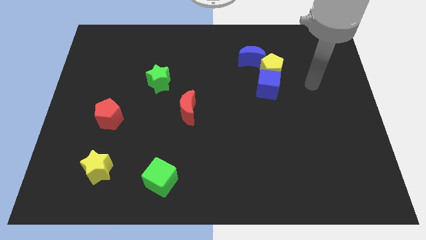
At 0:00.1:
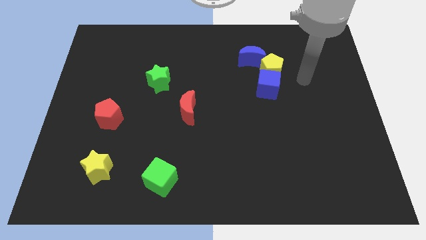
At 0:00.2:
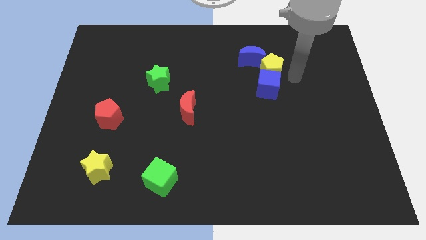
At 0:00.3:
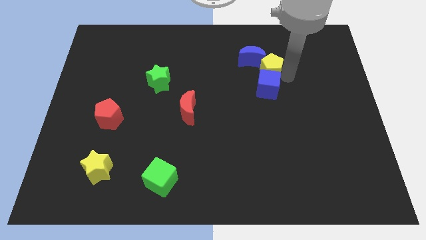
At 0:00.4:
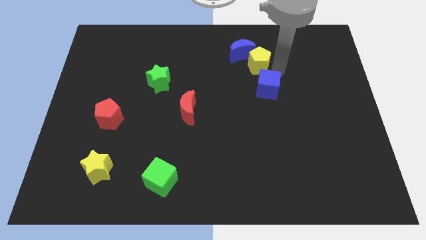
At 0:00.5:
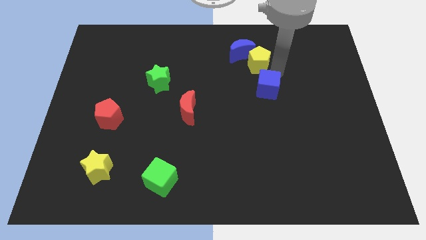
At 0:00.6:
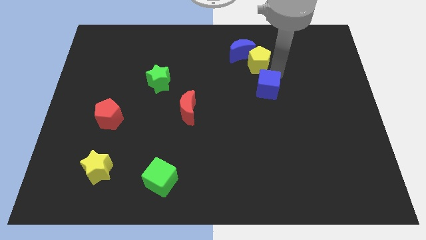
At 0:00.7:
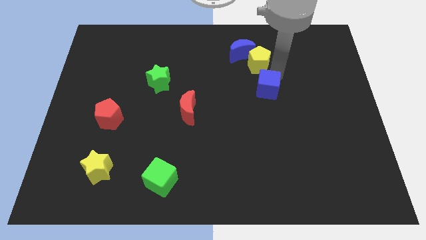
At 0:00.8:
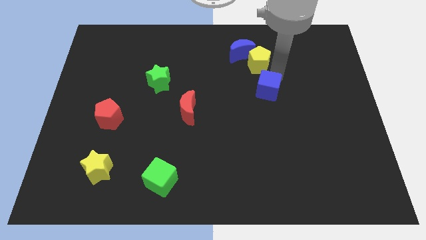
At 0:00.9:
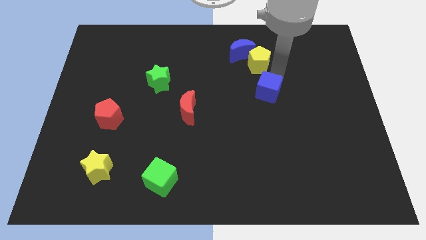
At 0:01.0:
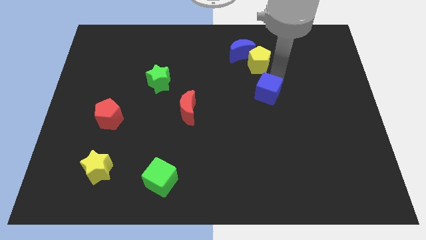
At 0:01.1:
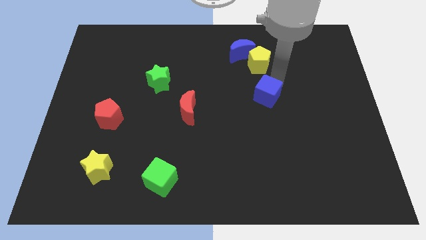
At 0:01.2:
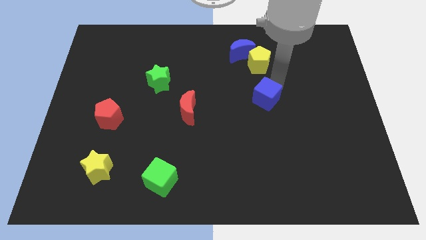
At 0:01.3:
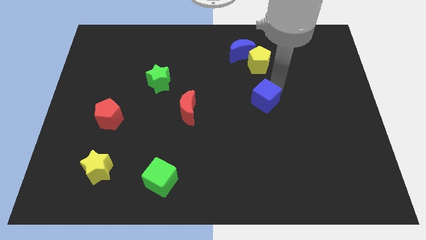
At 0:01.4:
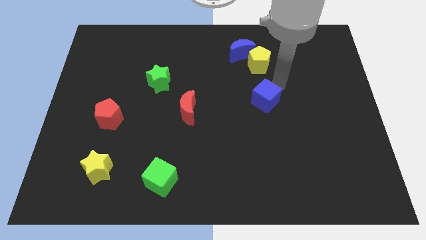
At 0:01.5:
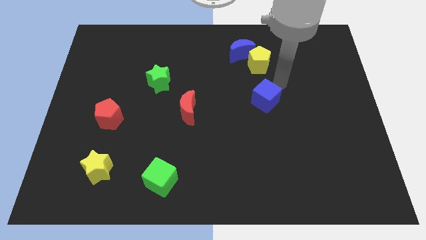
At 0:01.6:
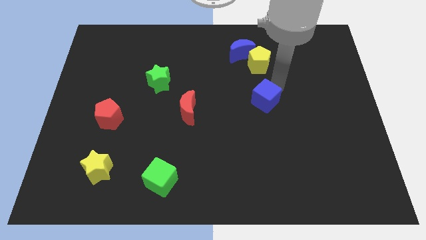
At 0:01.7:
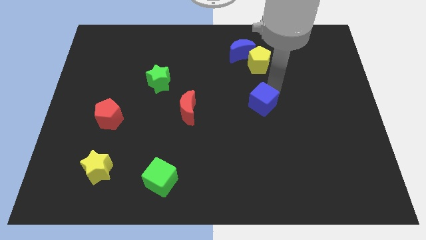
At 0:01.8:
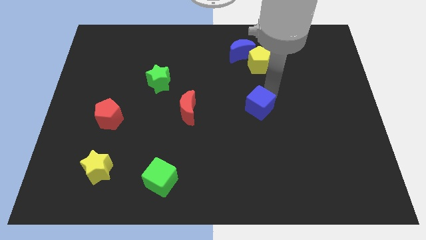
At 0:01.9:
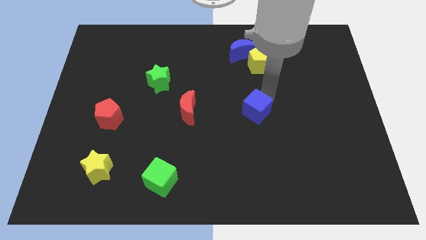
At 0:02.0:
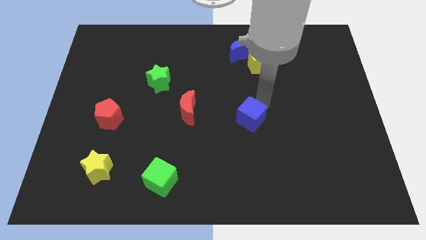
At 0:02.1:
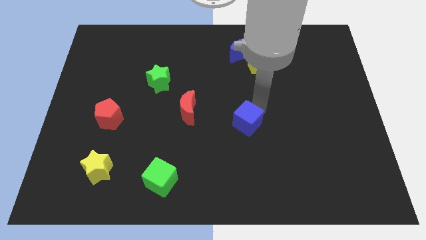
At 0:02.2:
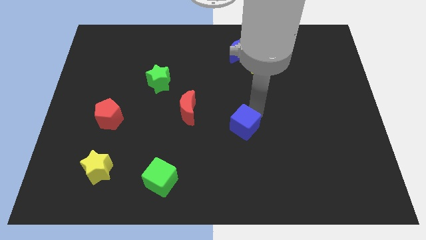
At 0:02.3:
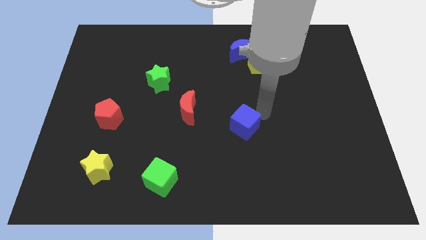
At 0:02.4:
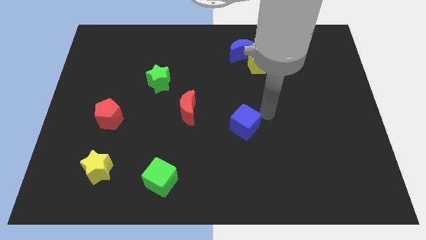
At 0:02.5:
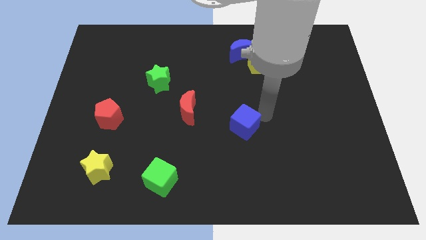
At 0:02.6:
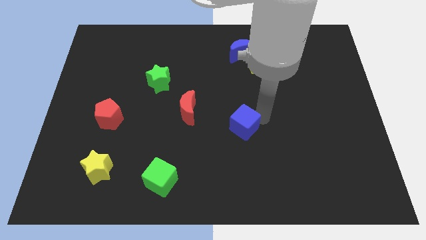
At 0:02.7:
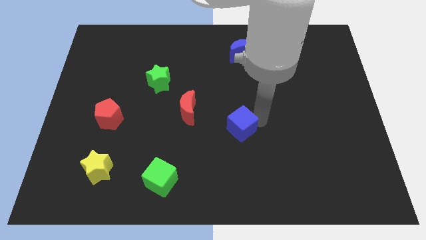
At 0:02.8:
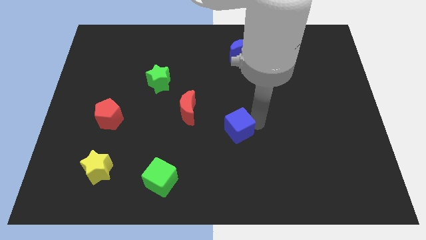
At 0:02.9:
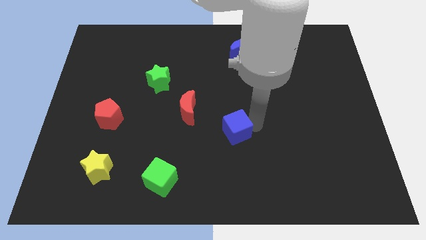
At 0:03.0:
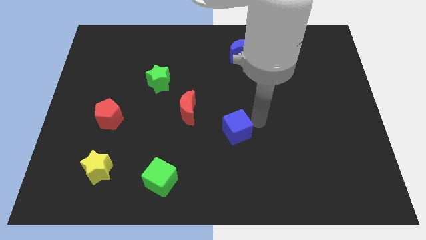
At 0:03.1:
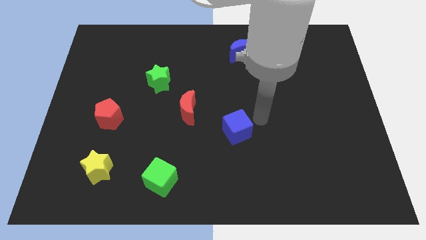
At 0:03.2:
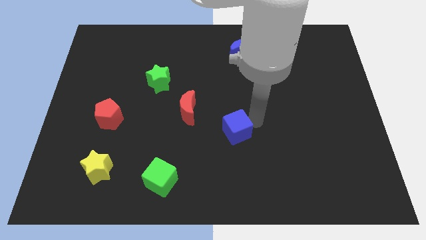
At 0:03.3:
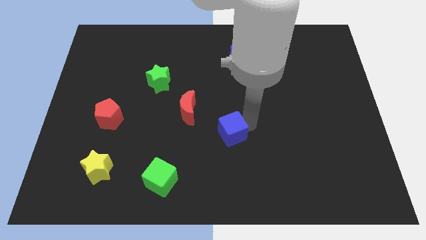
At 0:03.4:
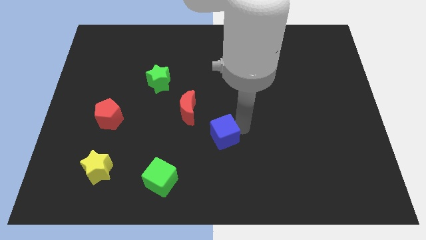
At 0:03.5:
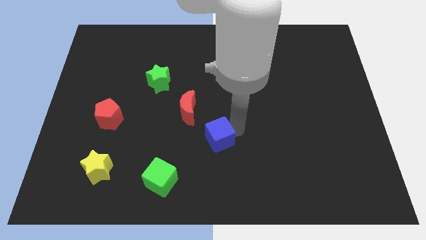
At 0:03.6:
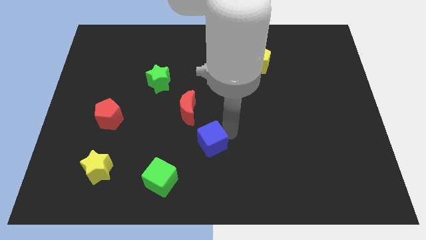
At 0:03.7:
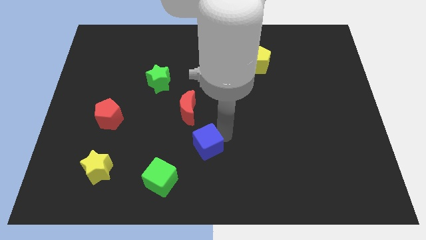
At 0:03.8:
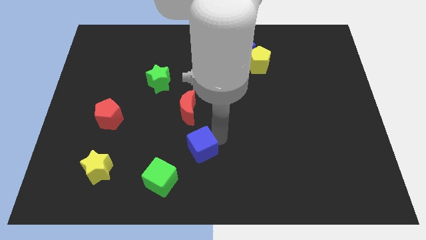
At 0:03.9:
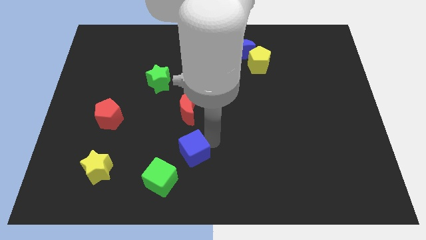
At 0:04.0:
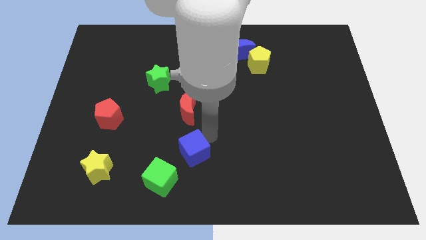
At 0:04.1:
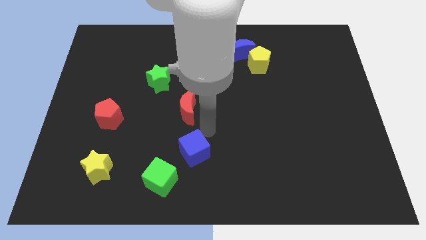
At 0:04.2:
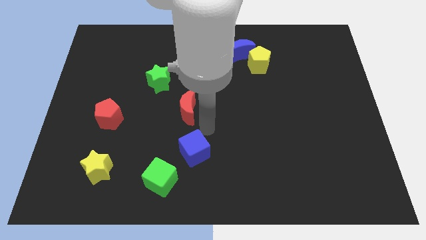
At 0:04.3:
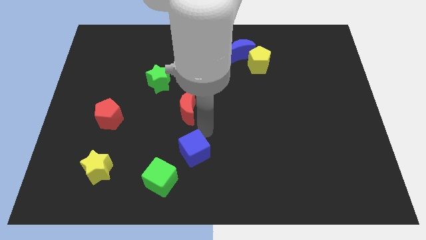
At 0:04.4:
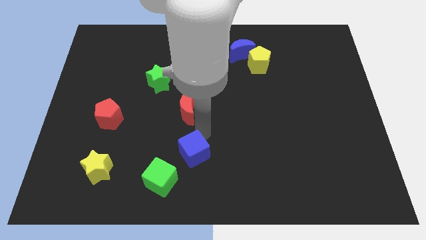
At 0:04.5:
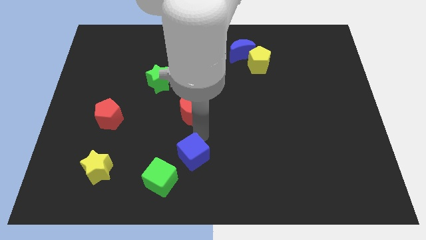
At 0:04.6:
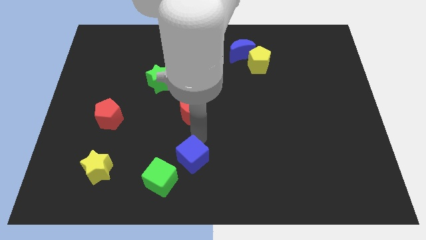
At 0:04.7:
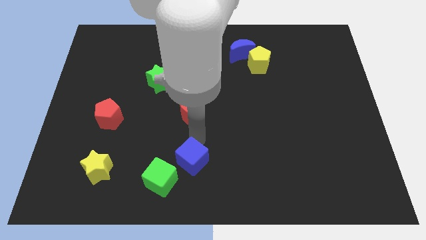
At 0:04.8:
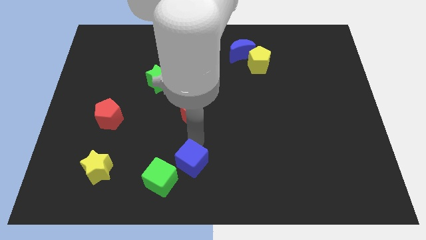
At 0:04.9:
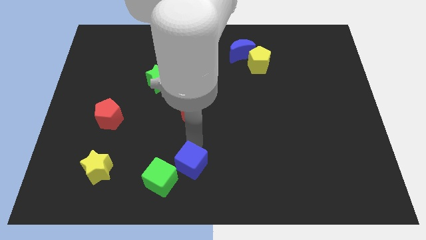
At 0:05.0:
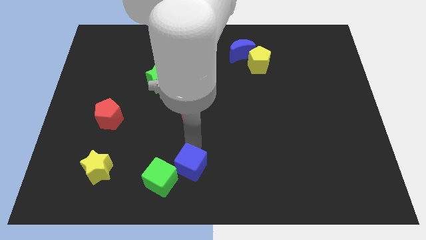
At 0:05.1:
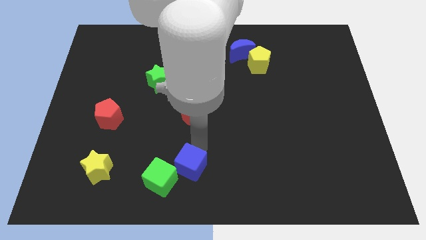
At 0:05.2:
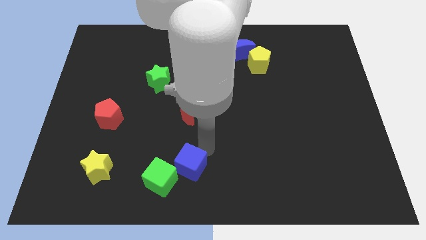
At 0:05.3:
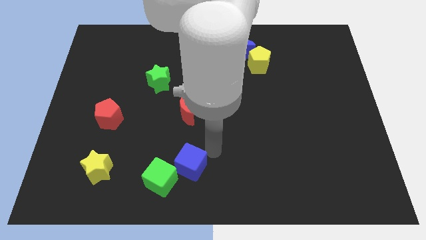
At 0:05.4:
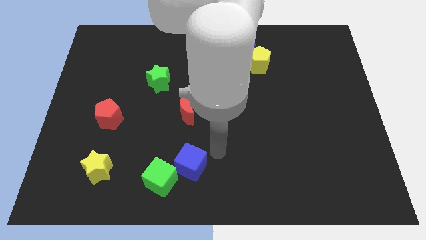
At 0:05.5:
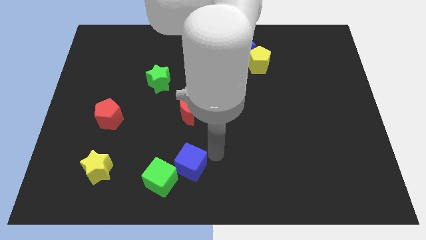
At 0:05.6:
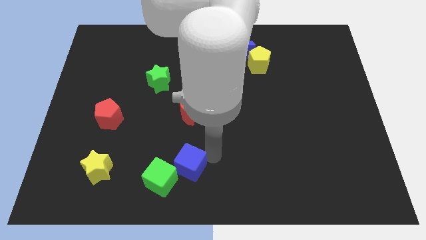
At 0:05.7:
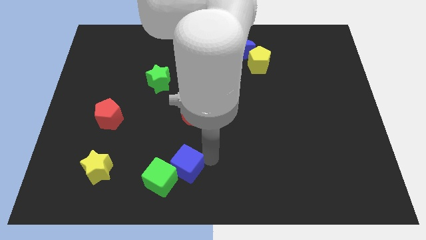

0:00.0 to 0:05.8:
put the blue cube close to the green cube

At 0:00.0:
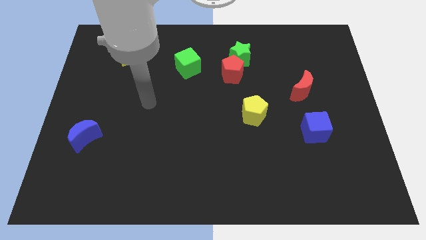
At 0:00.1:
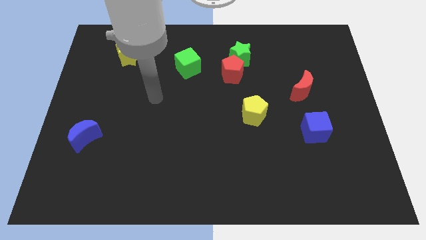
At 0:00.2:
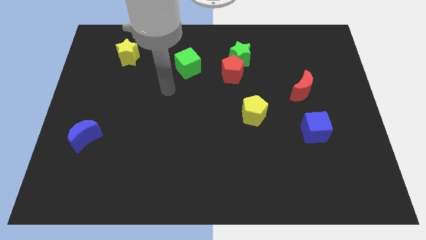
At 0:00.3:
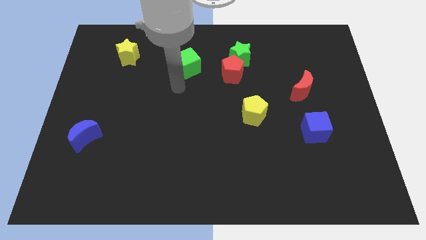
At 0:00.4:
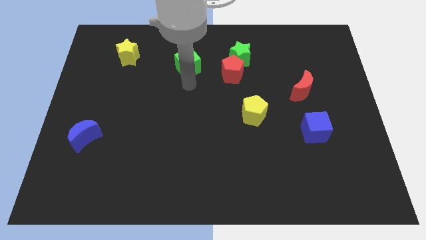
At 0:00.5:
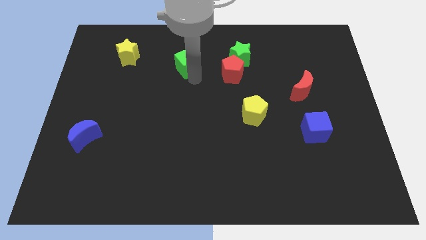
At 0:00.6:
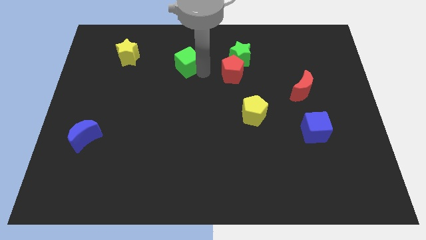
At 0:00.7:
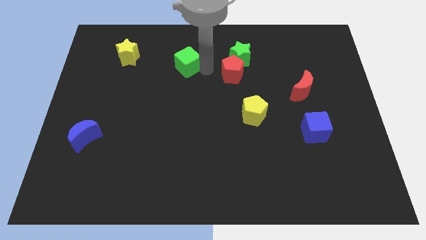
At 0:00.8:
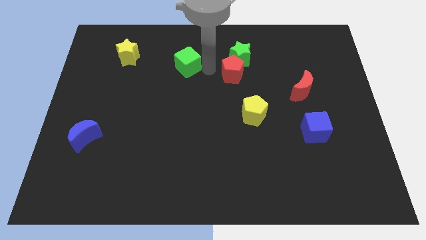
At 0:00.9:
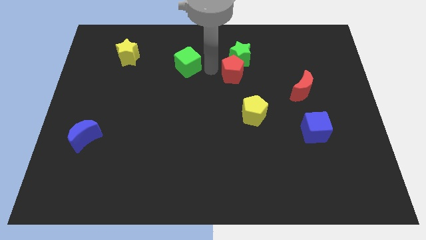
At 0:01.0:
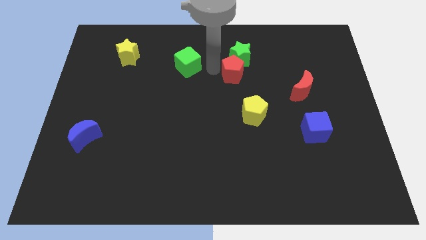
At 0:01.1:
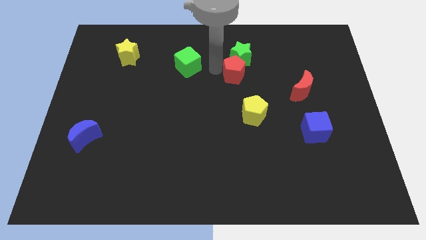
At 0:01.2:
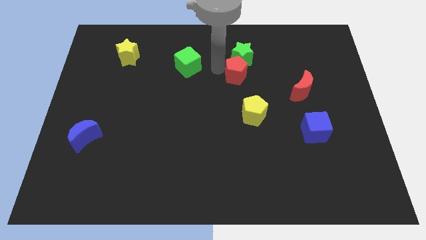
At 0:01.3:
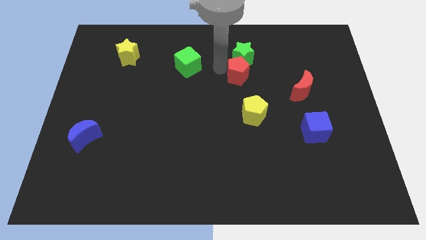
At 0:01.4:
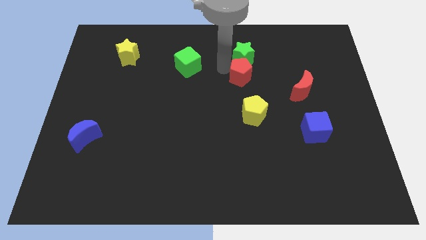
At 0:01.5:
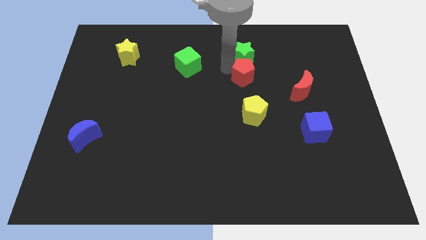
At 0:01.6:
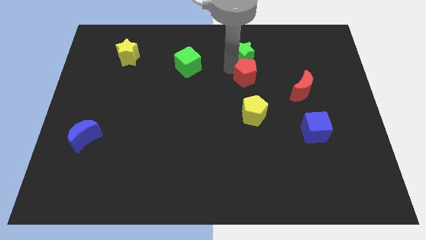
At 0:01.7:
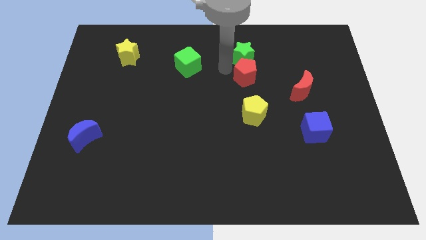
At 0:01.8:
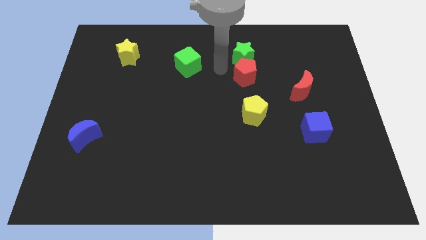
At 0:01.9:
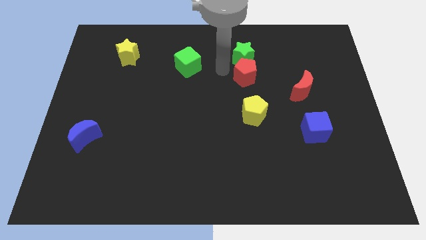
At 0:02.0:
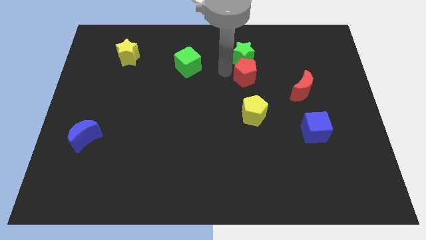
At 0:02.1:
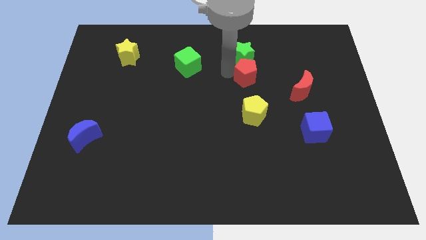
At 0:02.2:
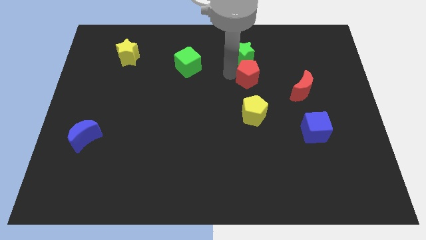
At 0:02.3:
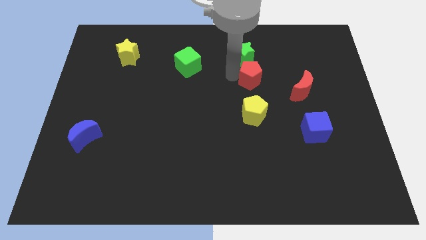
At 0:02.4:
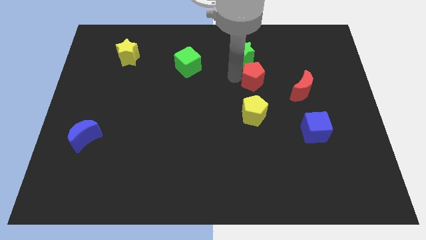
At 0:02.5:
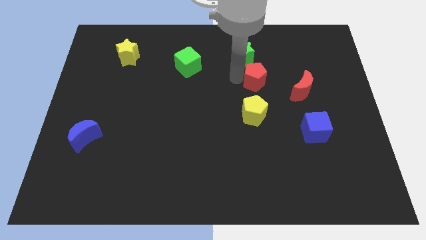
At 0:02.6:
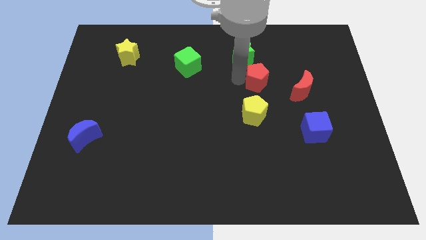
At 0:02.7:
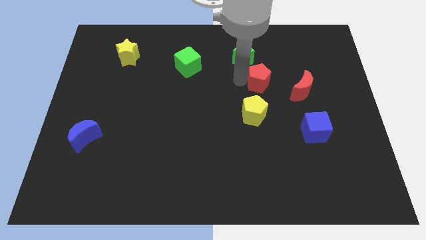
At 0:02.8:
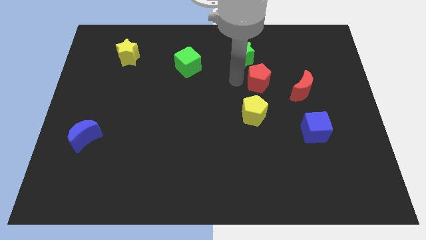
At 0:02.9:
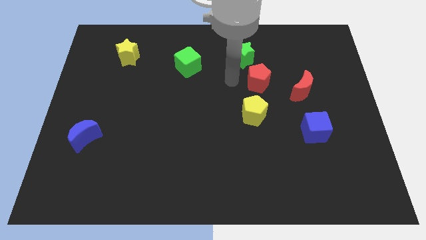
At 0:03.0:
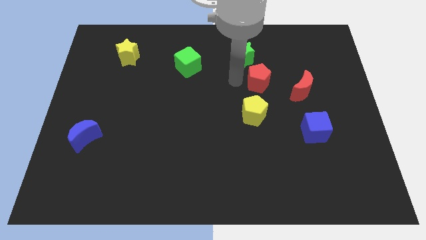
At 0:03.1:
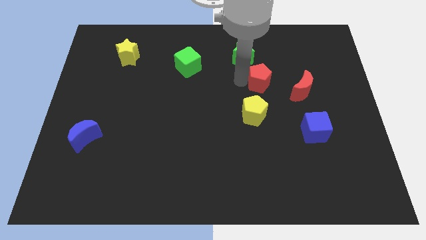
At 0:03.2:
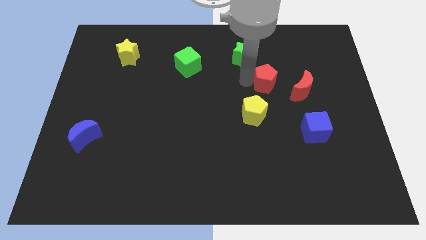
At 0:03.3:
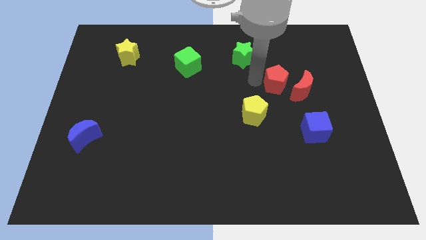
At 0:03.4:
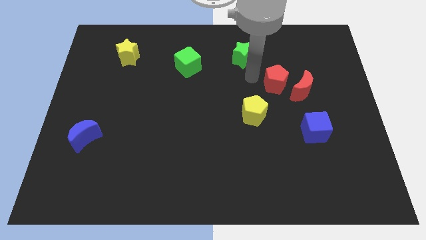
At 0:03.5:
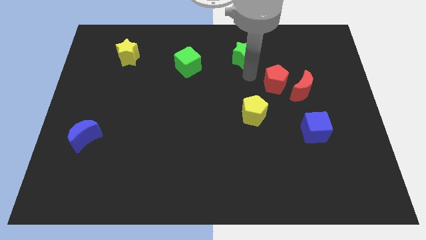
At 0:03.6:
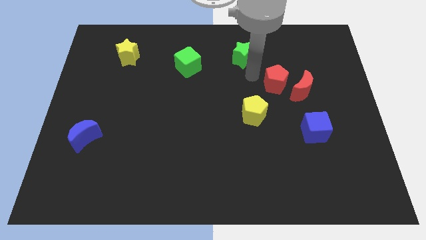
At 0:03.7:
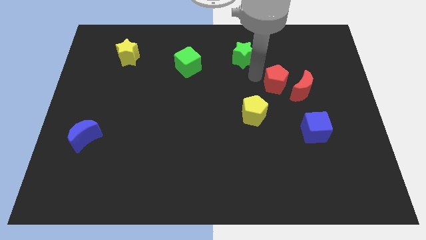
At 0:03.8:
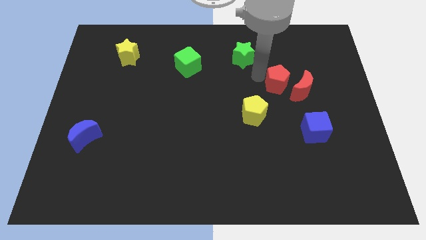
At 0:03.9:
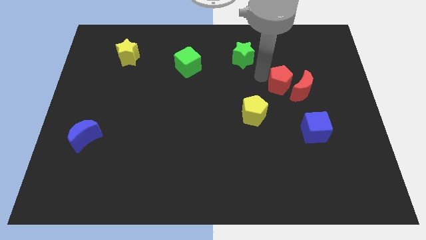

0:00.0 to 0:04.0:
push the red pentagon close to the red moon
